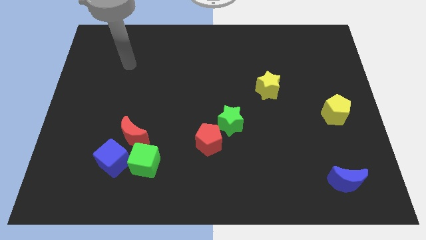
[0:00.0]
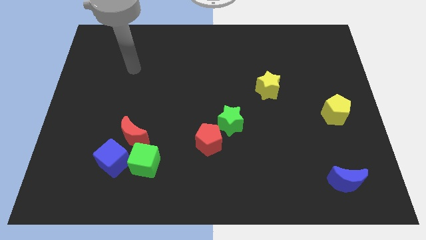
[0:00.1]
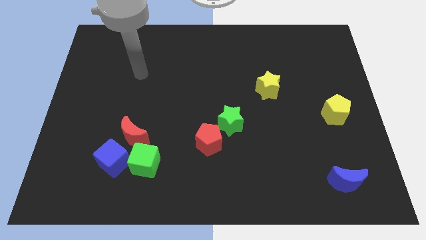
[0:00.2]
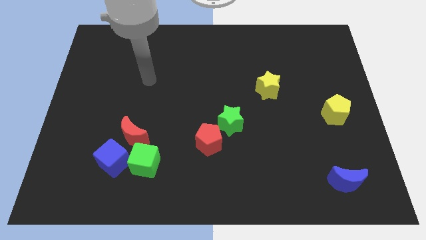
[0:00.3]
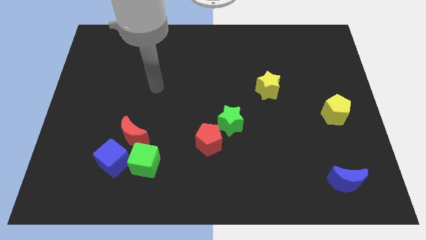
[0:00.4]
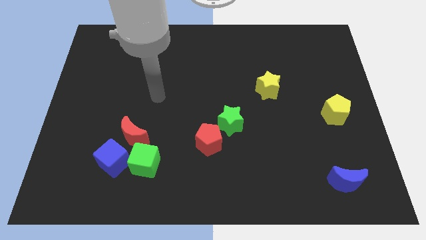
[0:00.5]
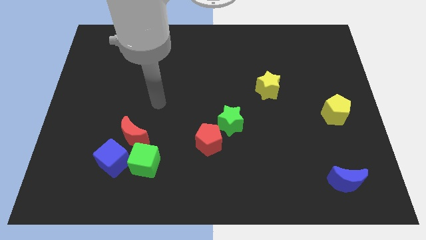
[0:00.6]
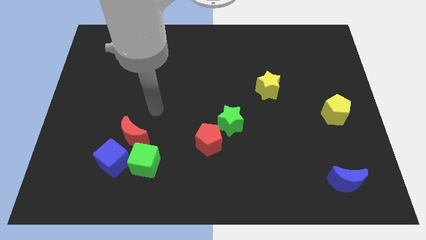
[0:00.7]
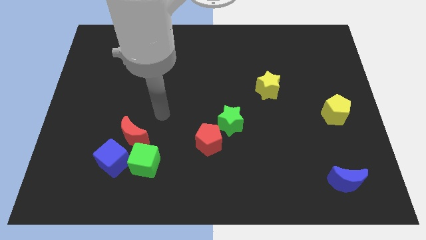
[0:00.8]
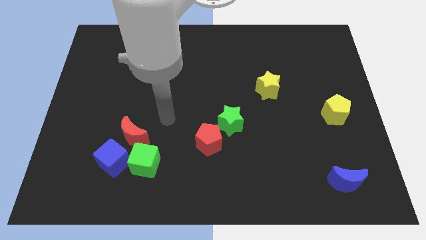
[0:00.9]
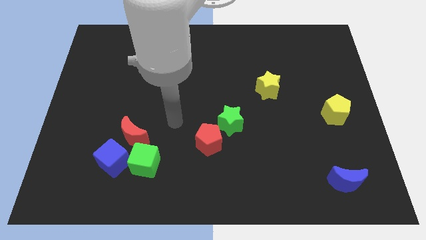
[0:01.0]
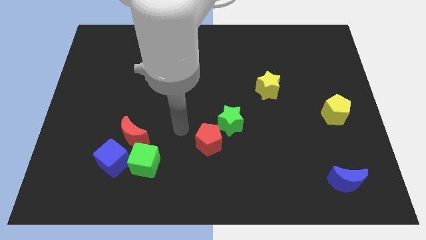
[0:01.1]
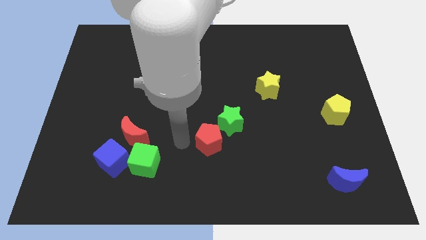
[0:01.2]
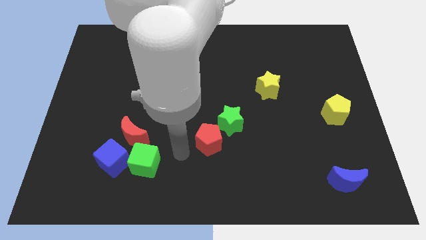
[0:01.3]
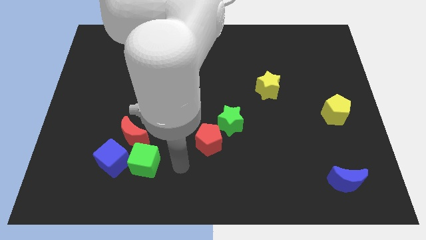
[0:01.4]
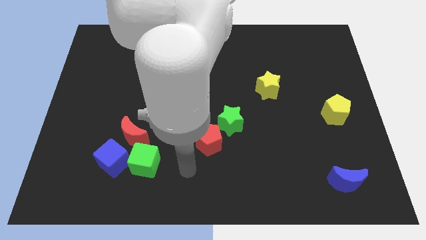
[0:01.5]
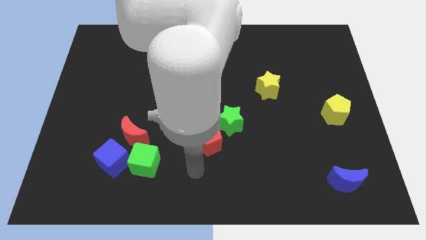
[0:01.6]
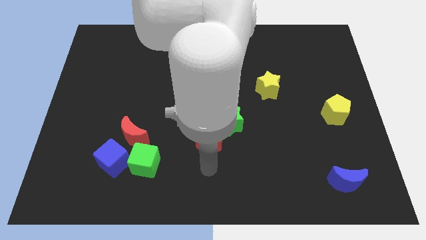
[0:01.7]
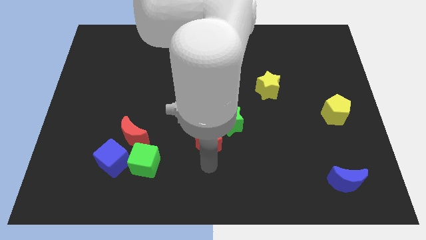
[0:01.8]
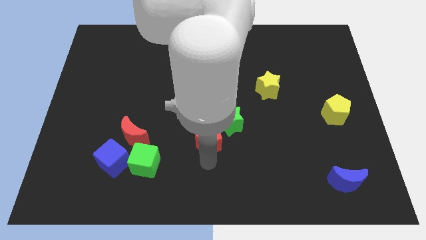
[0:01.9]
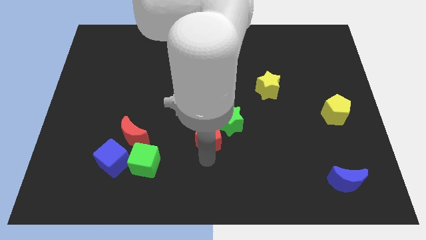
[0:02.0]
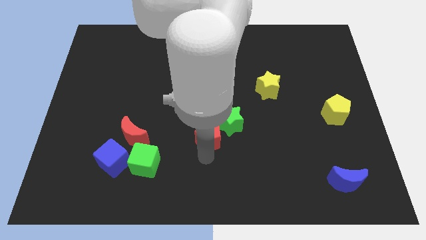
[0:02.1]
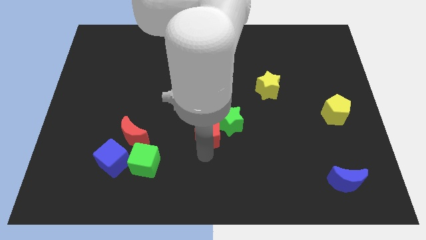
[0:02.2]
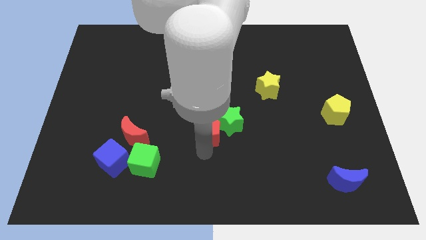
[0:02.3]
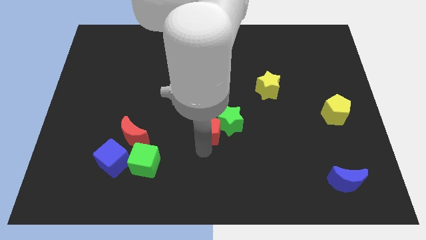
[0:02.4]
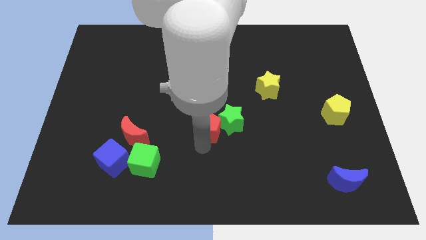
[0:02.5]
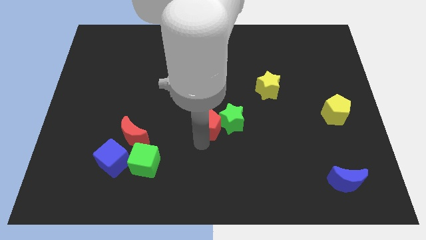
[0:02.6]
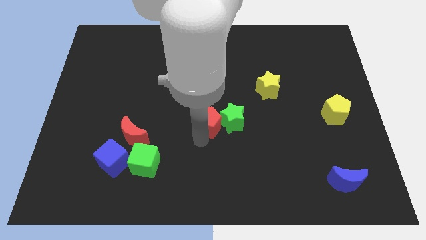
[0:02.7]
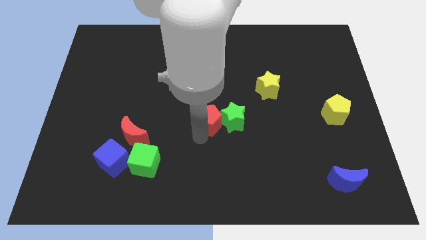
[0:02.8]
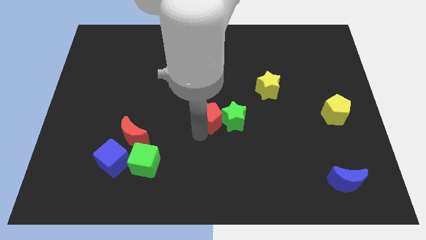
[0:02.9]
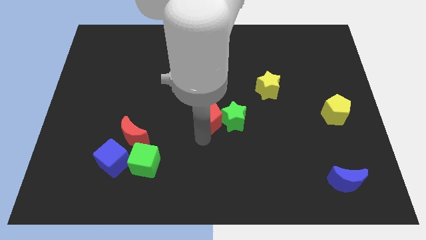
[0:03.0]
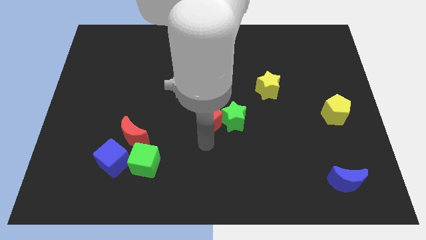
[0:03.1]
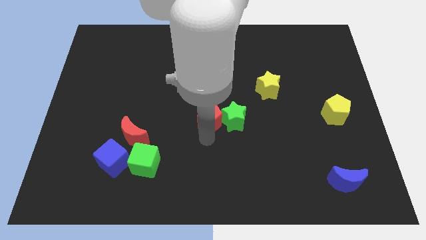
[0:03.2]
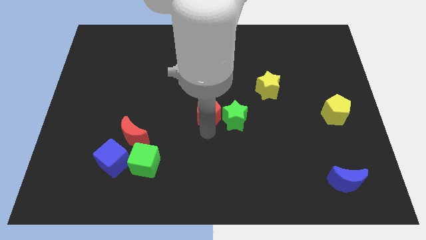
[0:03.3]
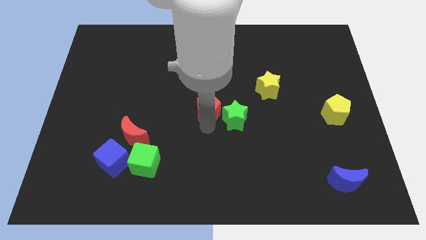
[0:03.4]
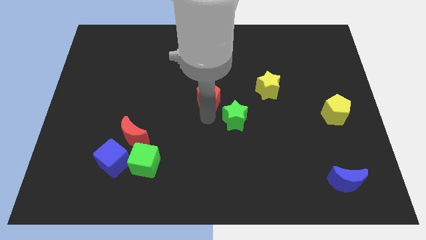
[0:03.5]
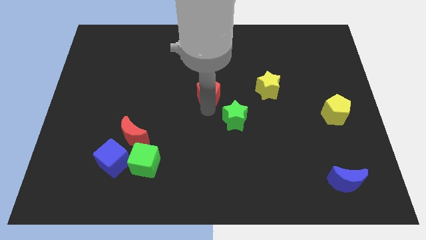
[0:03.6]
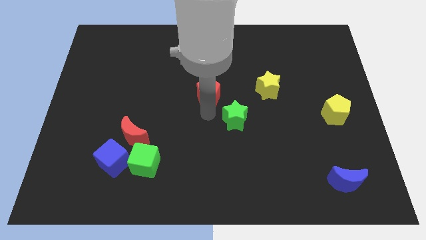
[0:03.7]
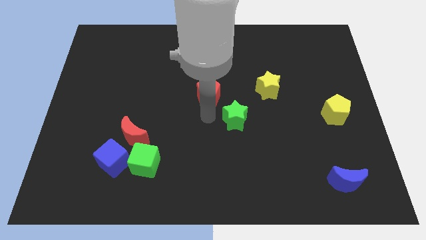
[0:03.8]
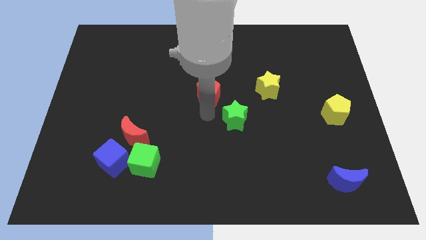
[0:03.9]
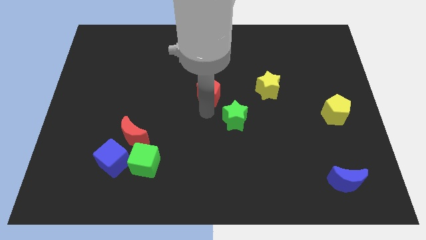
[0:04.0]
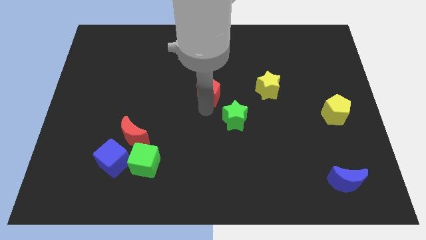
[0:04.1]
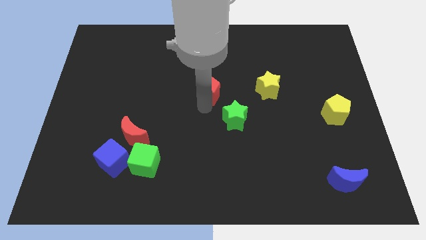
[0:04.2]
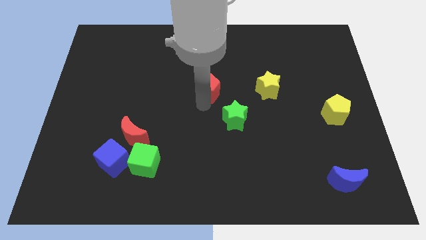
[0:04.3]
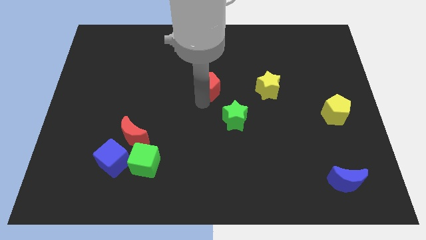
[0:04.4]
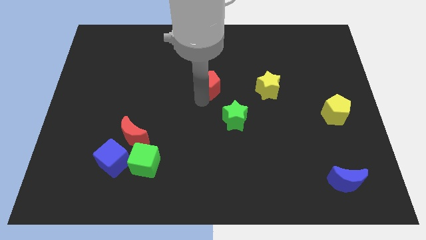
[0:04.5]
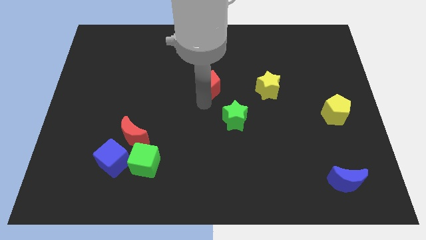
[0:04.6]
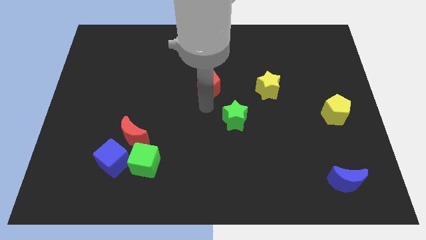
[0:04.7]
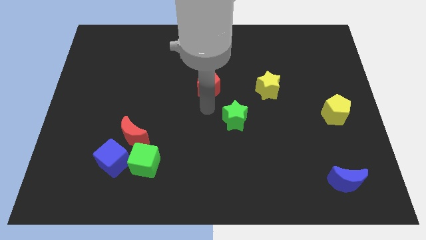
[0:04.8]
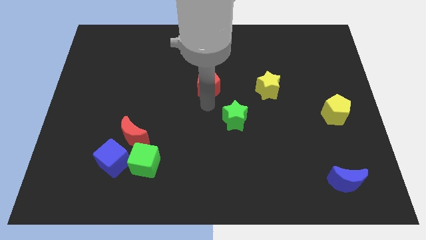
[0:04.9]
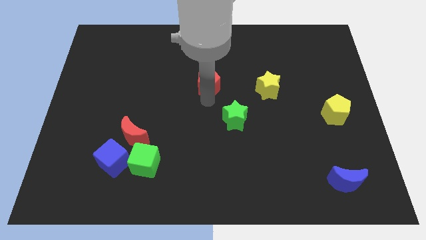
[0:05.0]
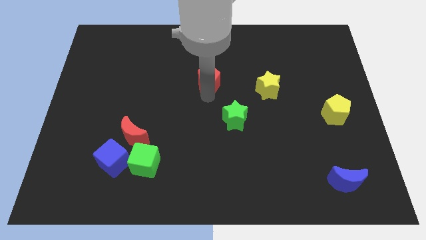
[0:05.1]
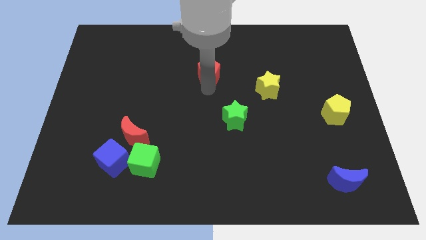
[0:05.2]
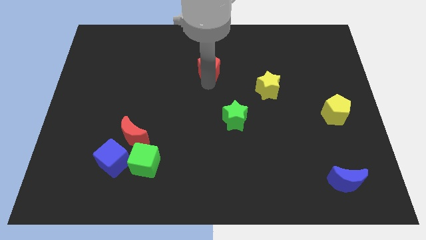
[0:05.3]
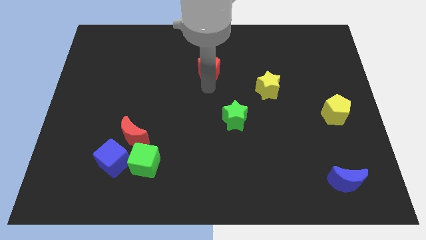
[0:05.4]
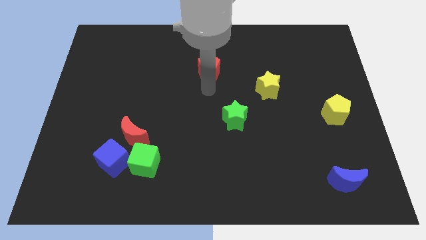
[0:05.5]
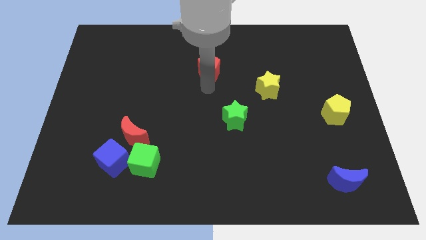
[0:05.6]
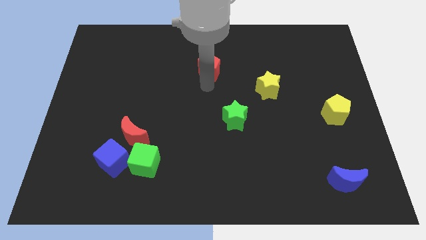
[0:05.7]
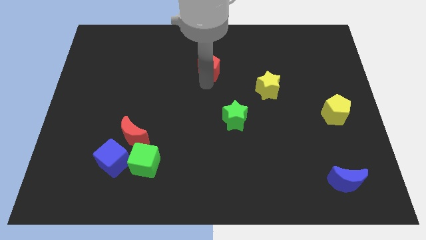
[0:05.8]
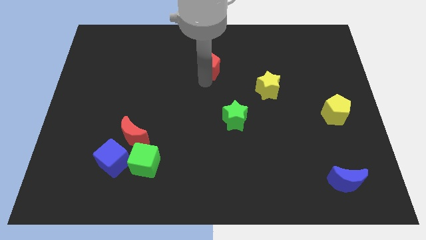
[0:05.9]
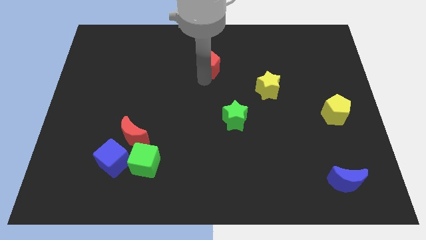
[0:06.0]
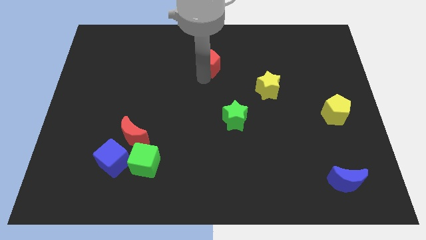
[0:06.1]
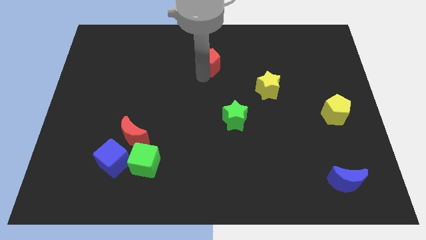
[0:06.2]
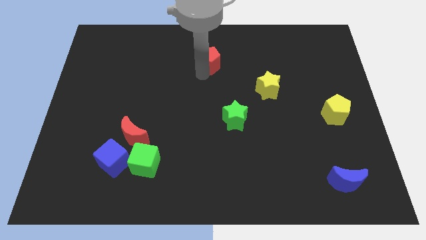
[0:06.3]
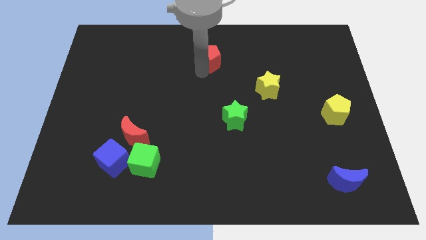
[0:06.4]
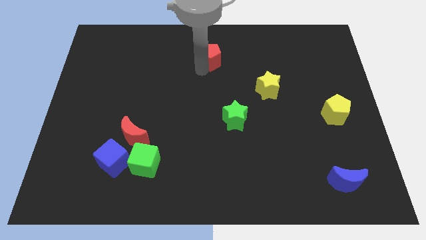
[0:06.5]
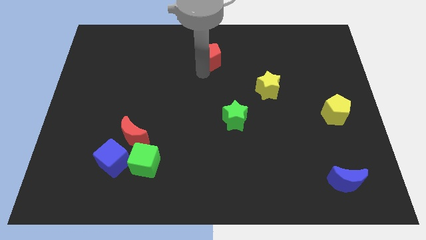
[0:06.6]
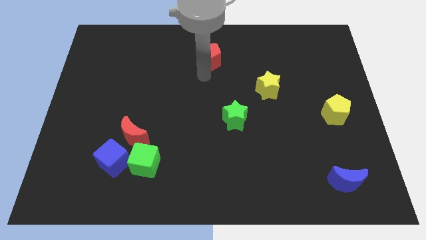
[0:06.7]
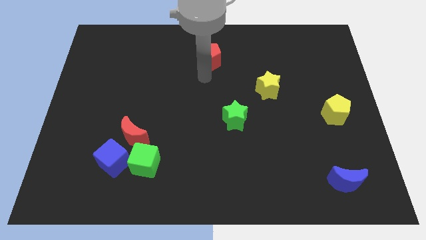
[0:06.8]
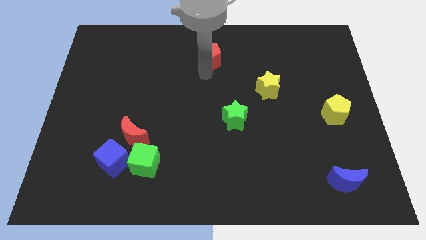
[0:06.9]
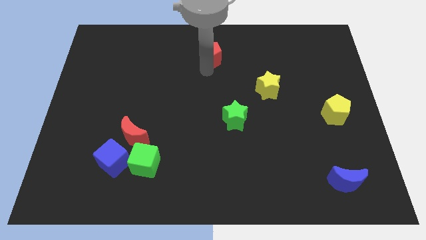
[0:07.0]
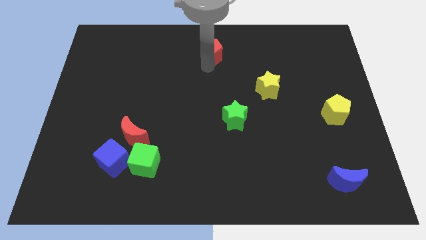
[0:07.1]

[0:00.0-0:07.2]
slide the red pentagon to the towards your base
